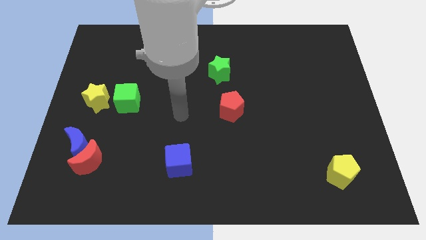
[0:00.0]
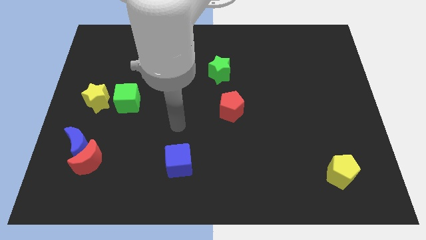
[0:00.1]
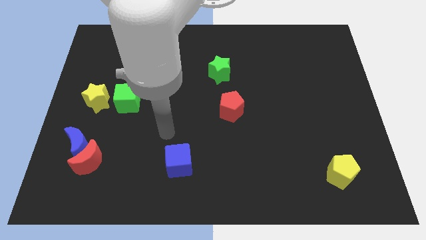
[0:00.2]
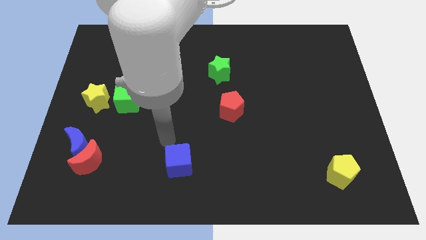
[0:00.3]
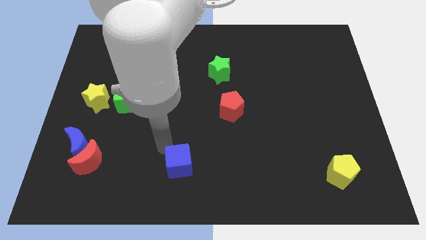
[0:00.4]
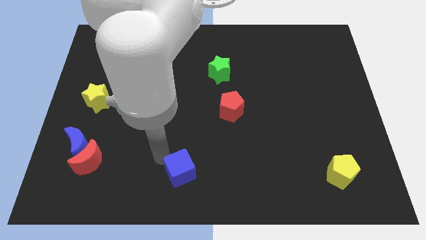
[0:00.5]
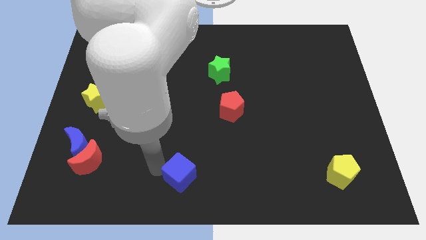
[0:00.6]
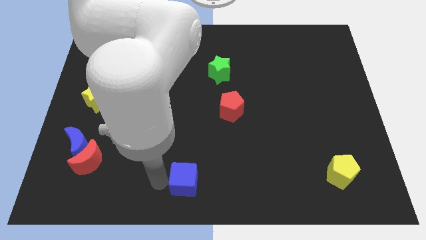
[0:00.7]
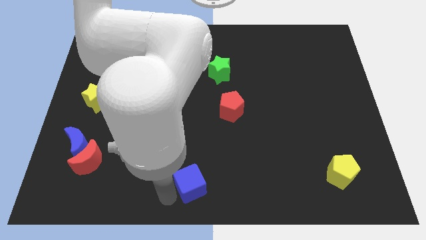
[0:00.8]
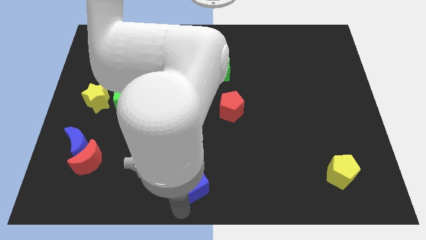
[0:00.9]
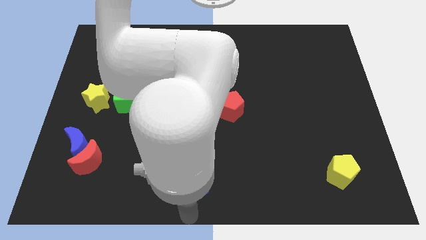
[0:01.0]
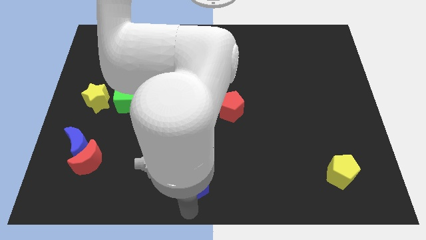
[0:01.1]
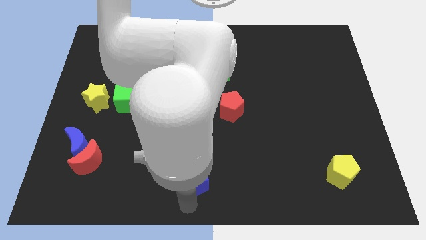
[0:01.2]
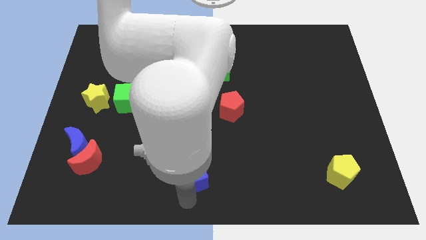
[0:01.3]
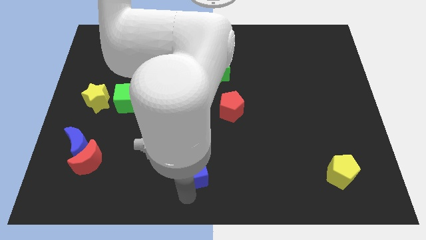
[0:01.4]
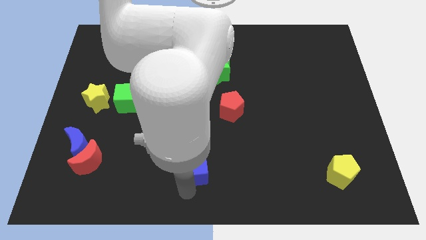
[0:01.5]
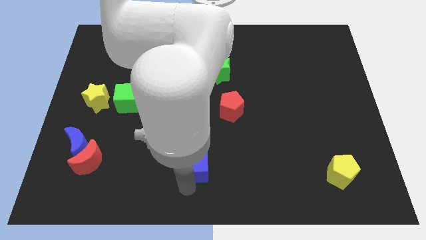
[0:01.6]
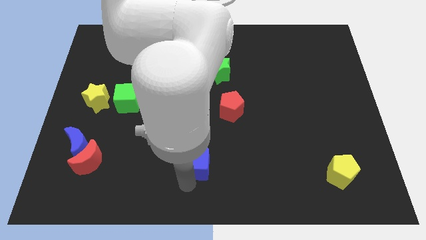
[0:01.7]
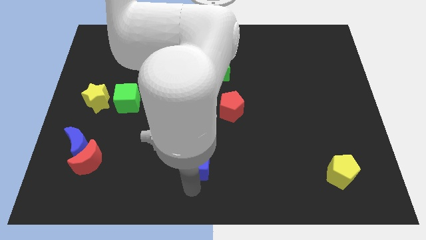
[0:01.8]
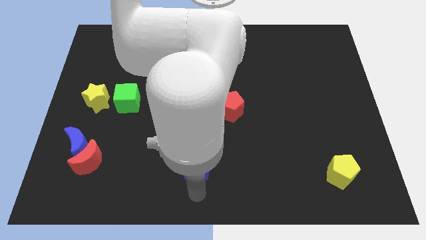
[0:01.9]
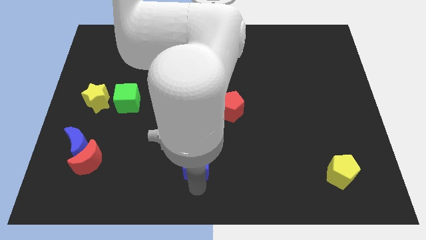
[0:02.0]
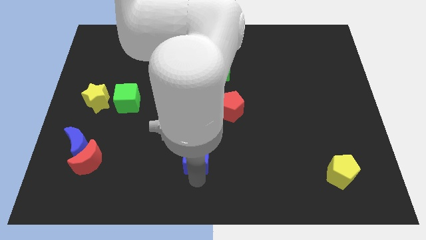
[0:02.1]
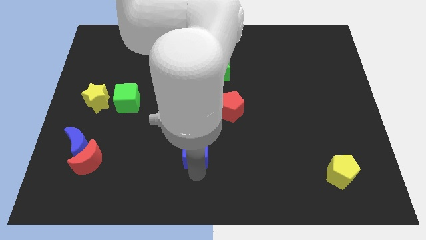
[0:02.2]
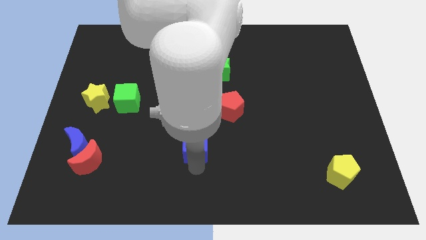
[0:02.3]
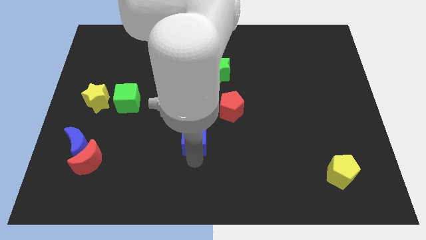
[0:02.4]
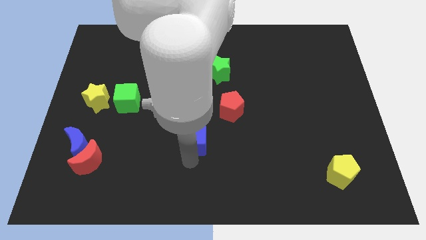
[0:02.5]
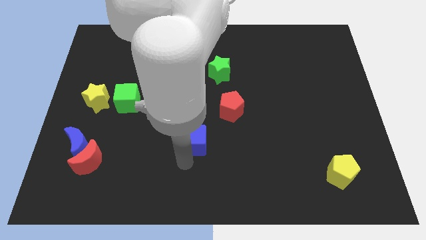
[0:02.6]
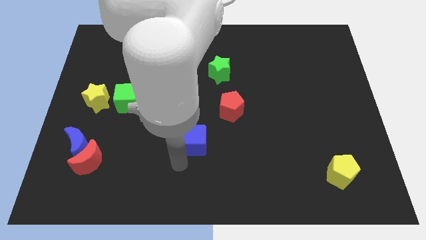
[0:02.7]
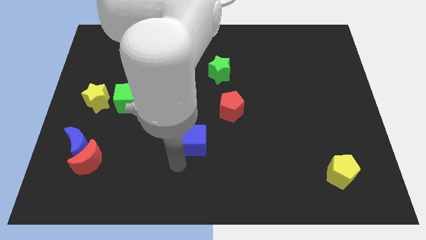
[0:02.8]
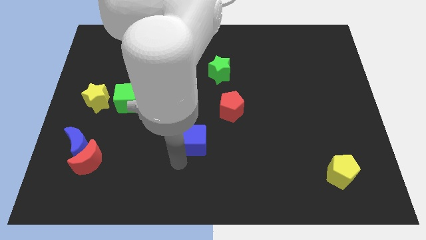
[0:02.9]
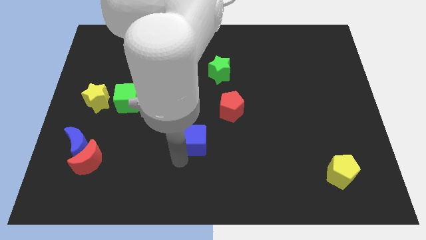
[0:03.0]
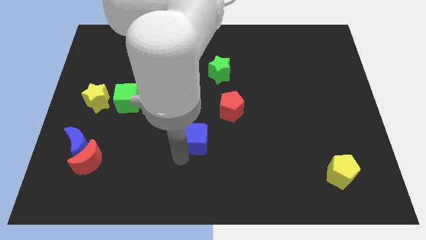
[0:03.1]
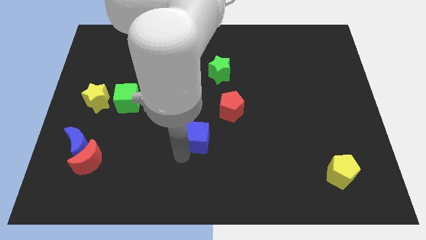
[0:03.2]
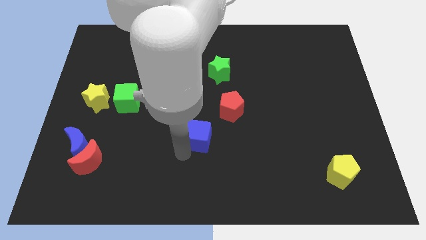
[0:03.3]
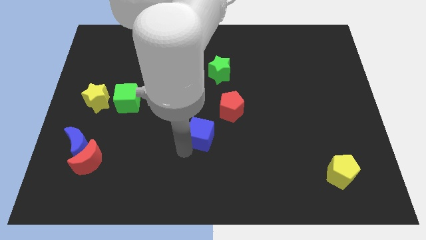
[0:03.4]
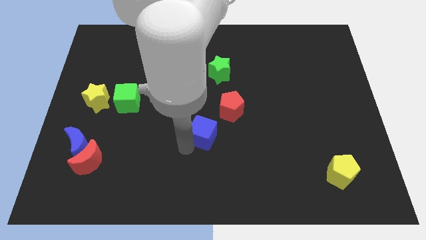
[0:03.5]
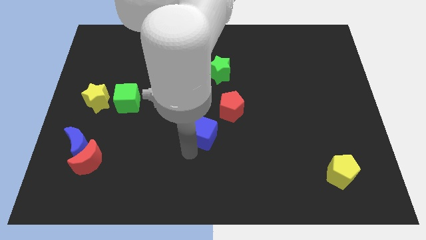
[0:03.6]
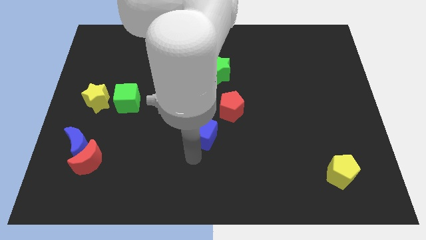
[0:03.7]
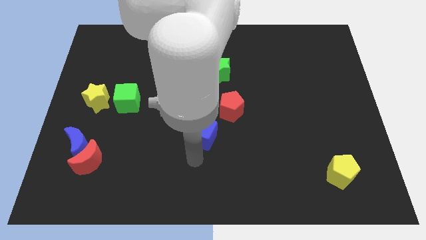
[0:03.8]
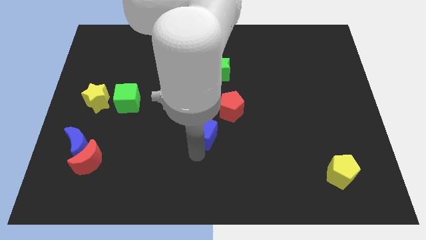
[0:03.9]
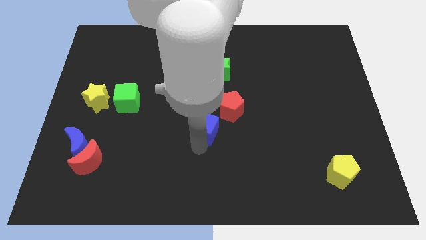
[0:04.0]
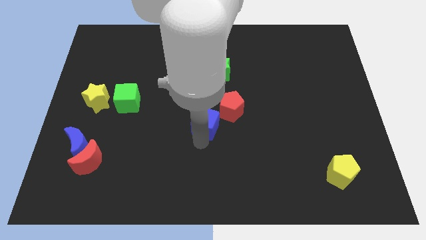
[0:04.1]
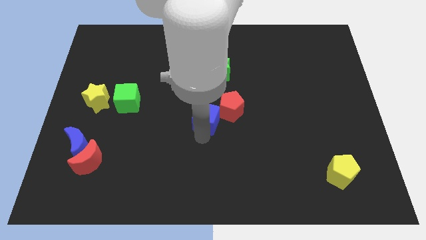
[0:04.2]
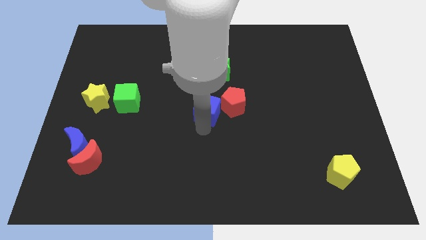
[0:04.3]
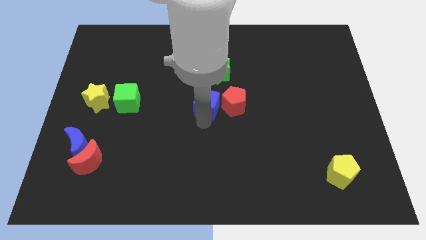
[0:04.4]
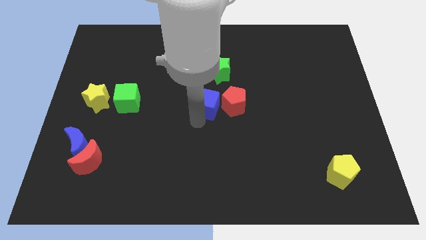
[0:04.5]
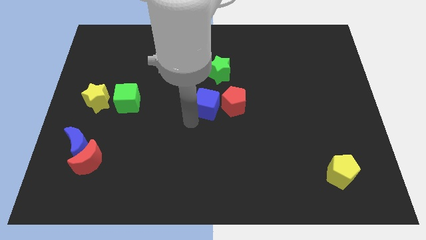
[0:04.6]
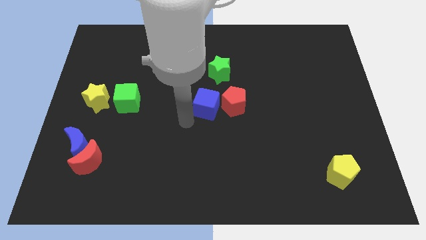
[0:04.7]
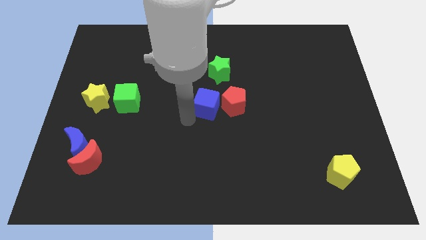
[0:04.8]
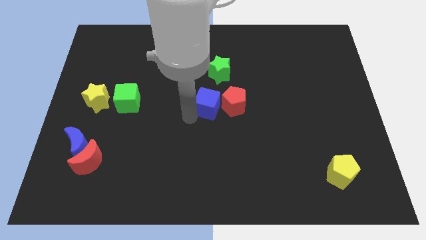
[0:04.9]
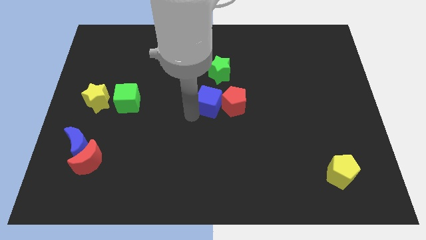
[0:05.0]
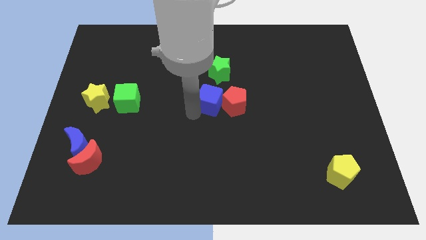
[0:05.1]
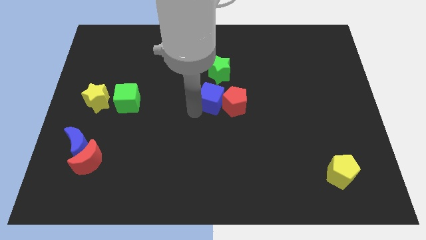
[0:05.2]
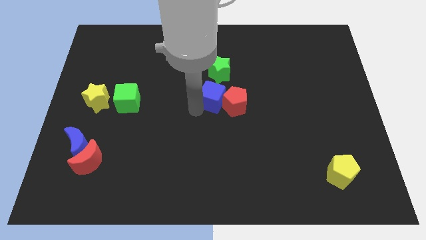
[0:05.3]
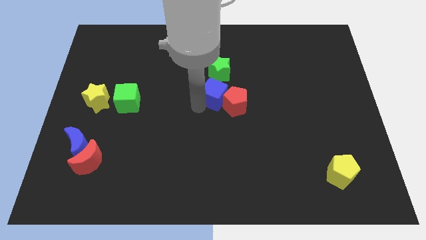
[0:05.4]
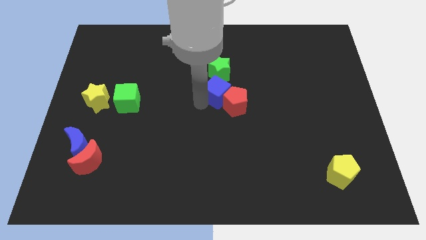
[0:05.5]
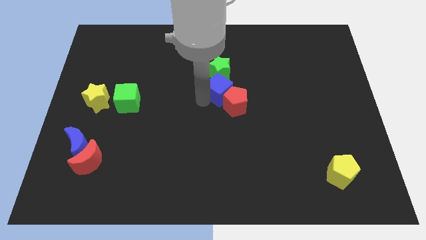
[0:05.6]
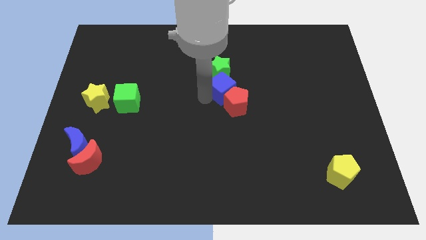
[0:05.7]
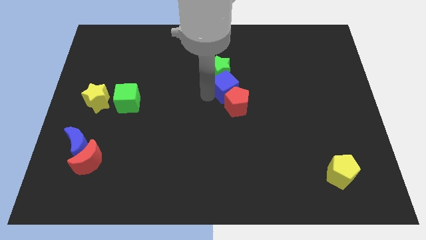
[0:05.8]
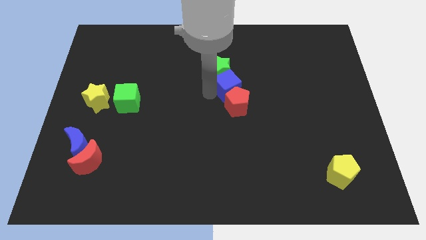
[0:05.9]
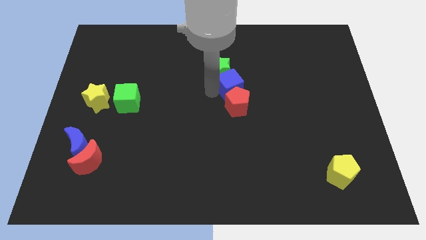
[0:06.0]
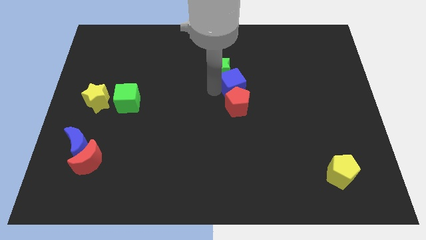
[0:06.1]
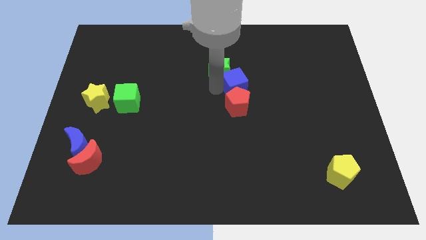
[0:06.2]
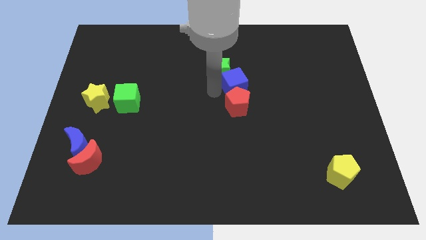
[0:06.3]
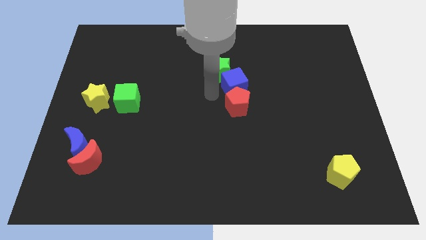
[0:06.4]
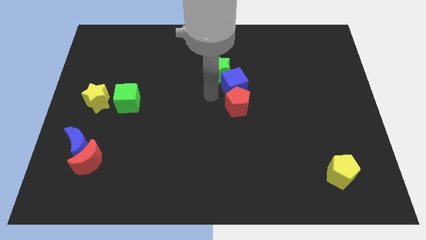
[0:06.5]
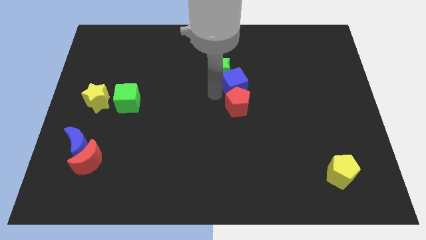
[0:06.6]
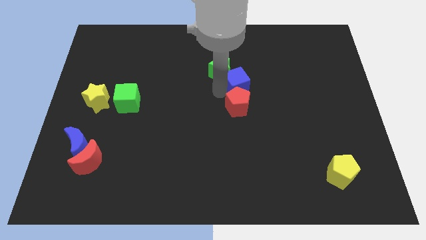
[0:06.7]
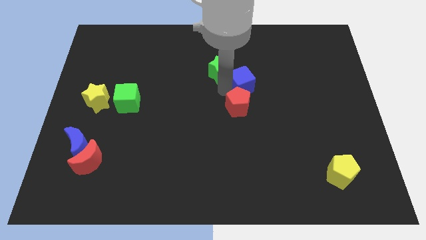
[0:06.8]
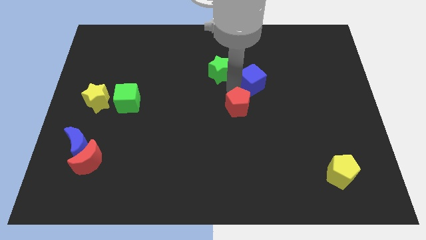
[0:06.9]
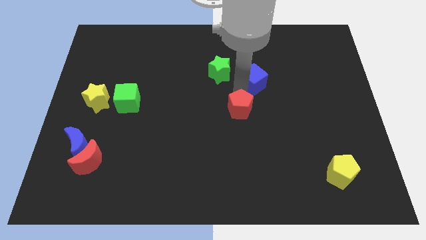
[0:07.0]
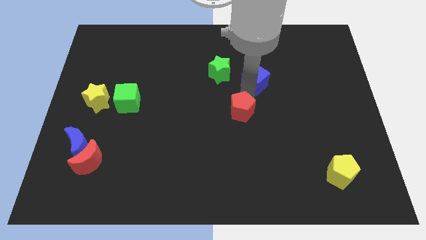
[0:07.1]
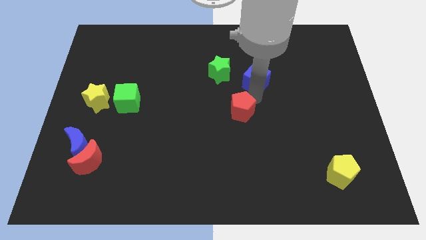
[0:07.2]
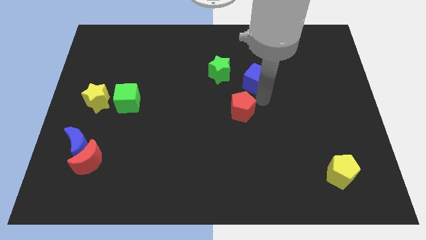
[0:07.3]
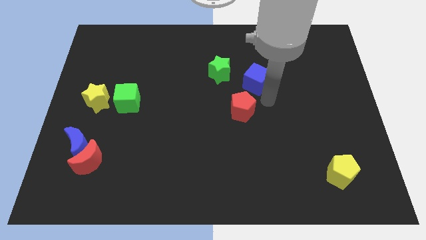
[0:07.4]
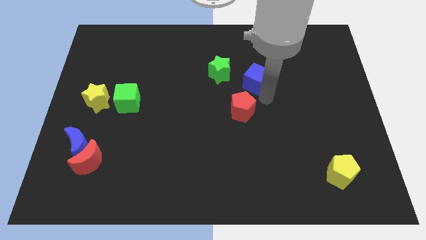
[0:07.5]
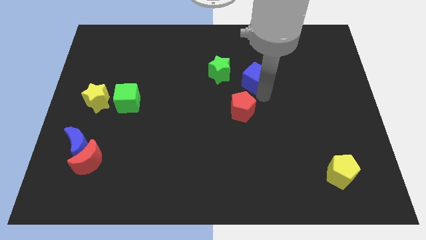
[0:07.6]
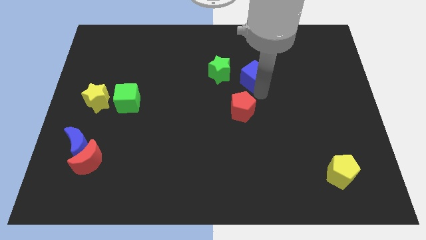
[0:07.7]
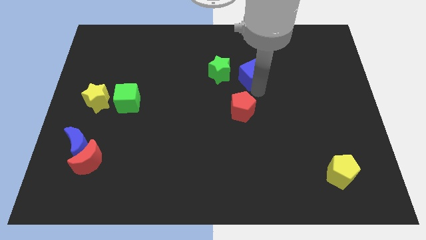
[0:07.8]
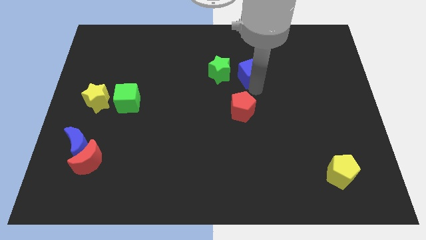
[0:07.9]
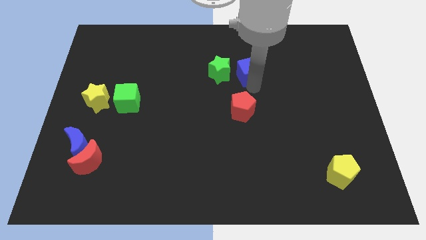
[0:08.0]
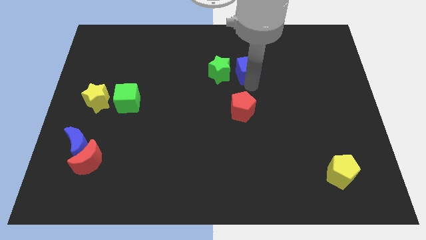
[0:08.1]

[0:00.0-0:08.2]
slide the blue cube to the top right side of the green star
